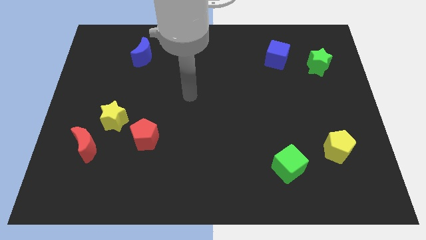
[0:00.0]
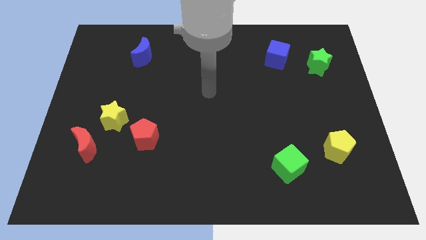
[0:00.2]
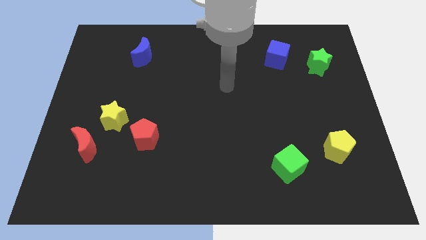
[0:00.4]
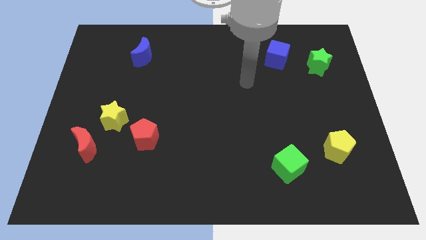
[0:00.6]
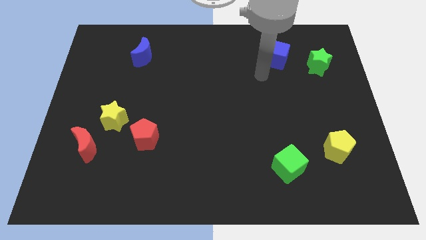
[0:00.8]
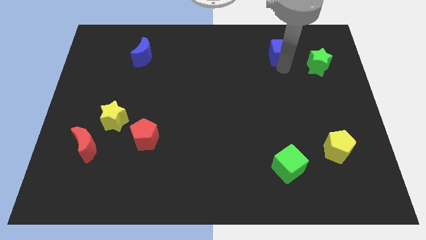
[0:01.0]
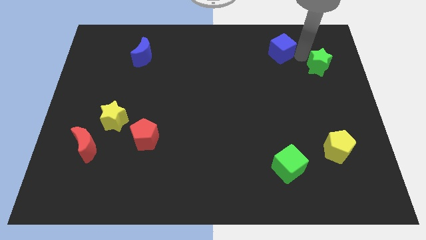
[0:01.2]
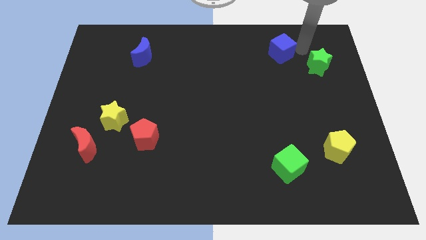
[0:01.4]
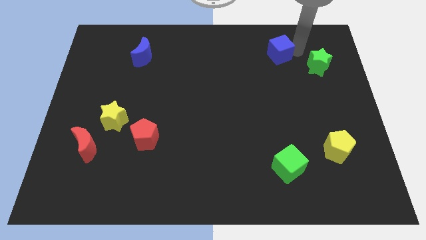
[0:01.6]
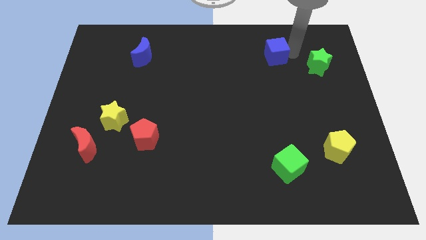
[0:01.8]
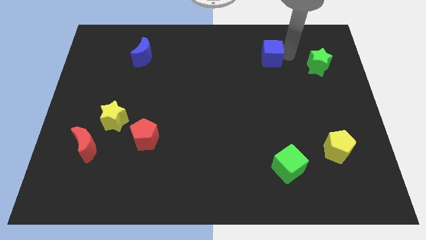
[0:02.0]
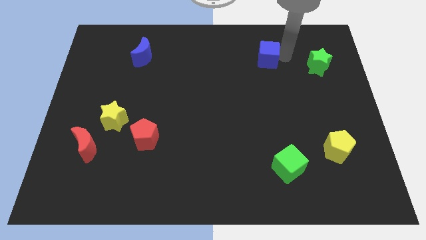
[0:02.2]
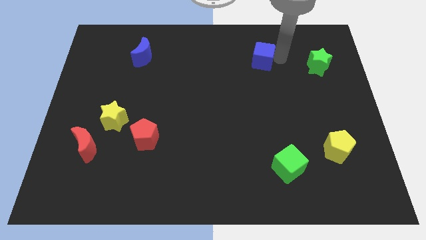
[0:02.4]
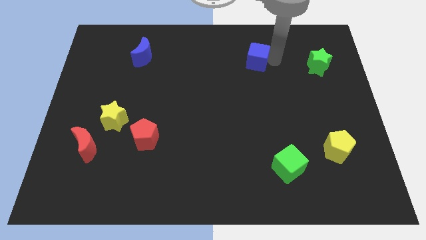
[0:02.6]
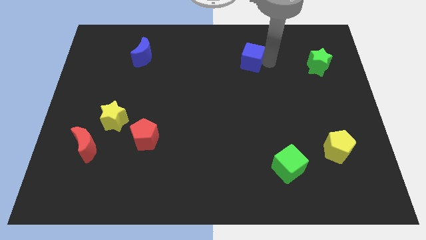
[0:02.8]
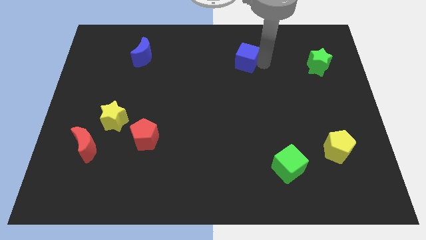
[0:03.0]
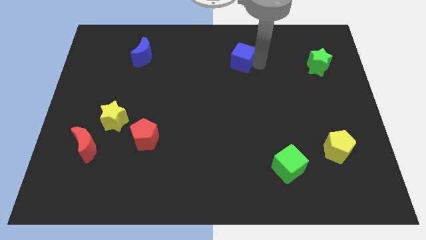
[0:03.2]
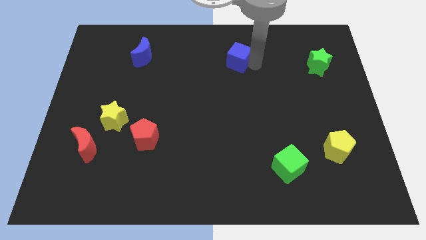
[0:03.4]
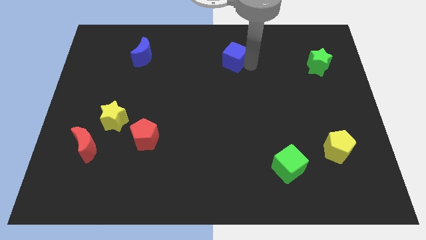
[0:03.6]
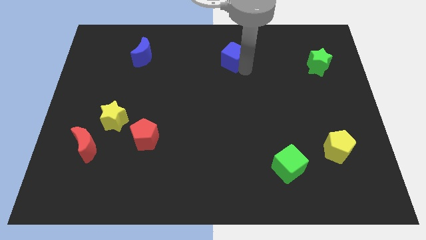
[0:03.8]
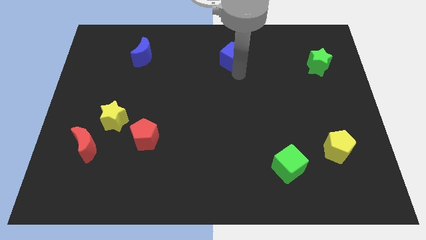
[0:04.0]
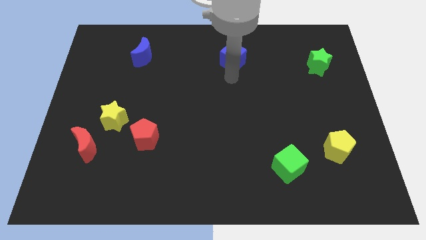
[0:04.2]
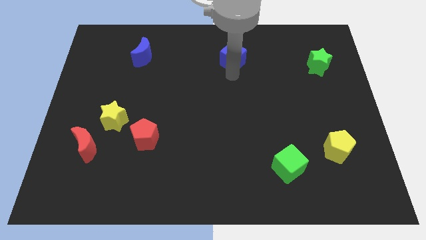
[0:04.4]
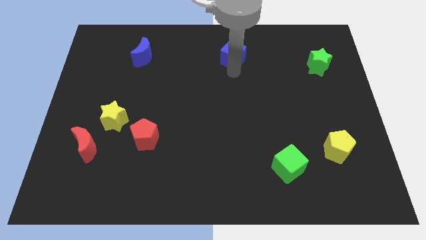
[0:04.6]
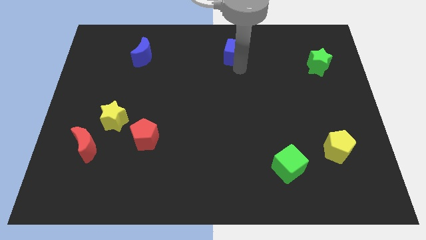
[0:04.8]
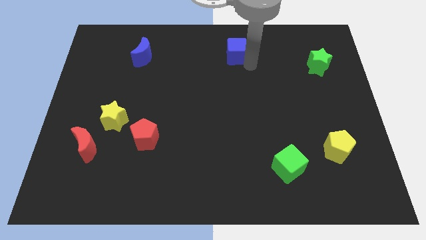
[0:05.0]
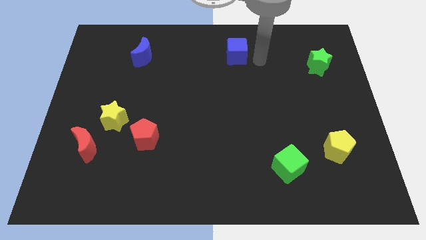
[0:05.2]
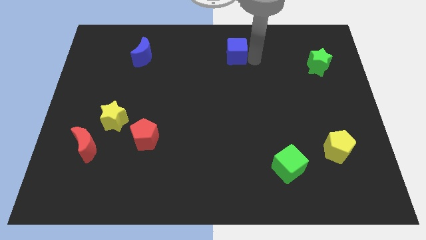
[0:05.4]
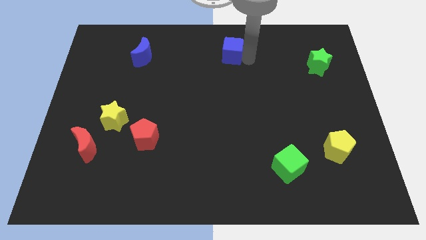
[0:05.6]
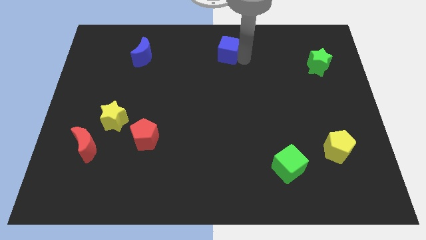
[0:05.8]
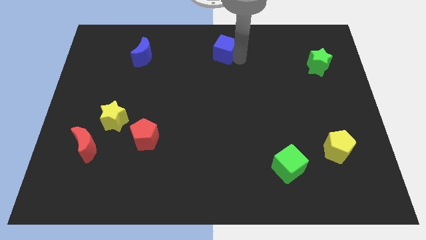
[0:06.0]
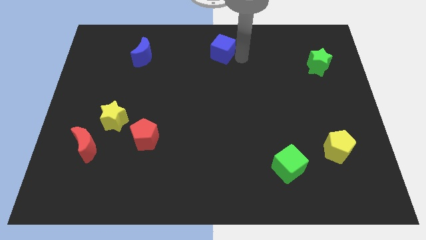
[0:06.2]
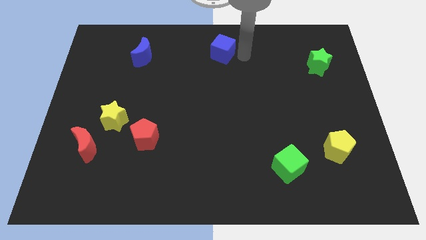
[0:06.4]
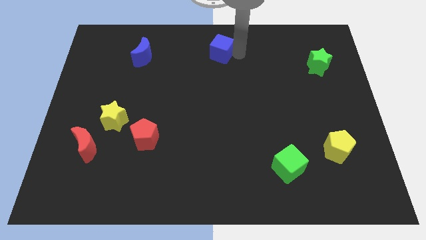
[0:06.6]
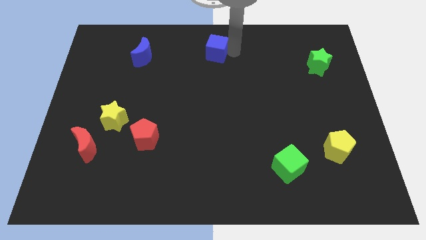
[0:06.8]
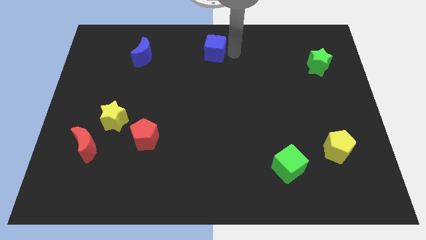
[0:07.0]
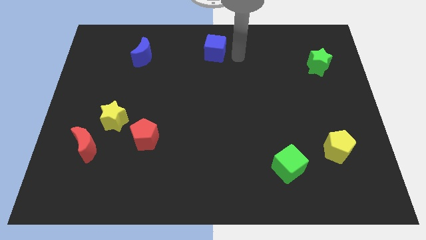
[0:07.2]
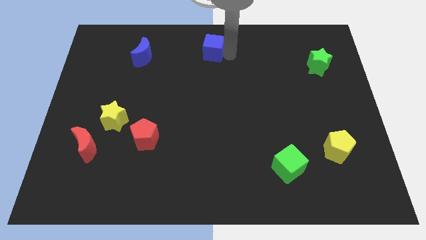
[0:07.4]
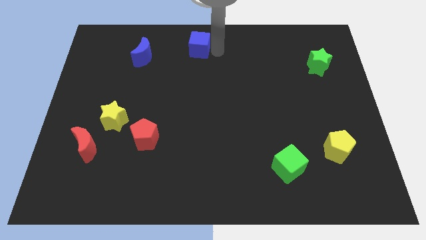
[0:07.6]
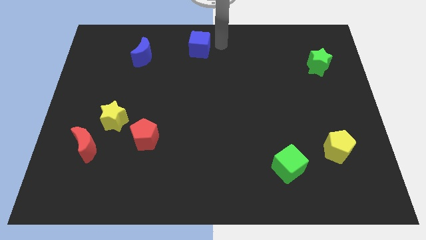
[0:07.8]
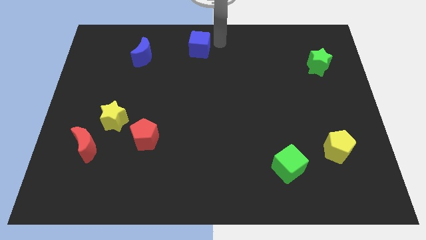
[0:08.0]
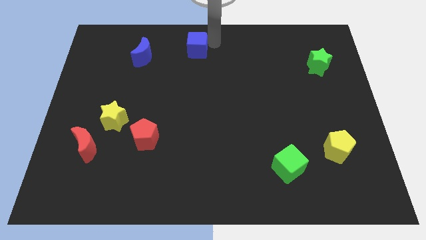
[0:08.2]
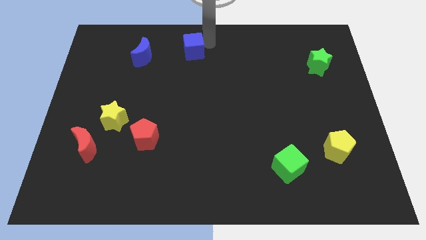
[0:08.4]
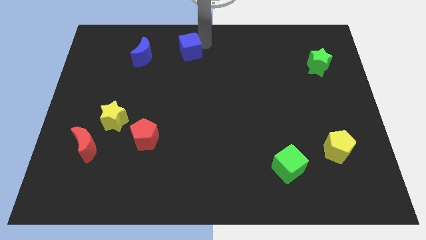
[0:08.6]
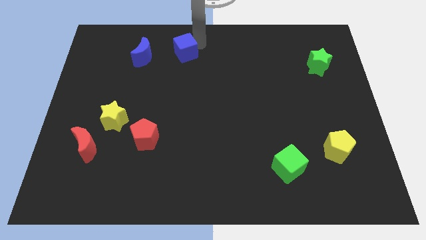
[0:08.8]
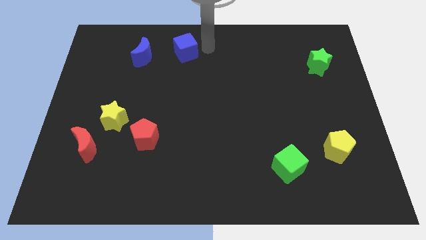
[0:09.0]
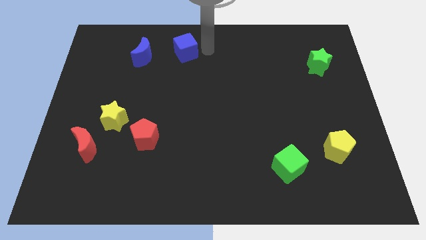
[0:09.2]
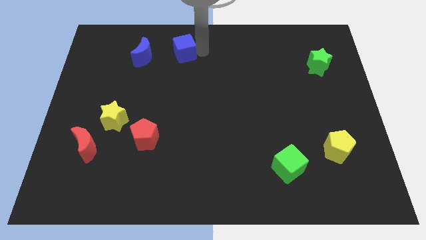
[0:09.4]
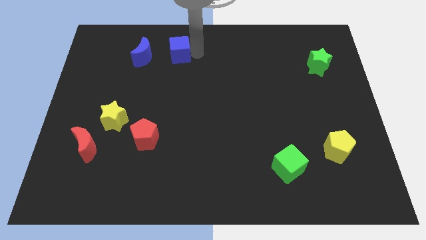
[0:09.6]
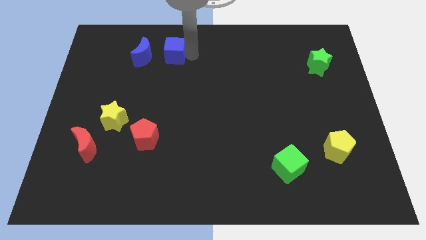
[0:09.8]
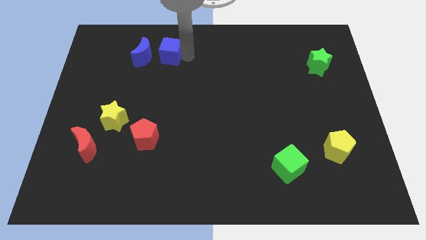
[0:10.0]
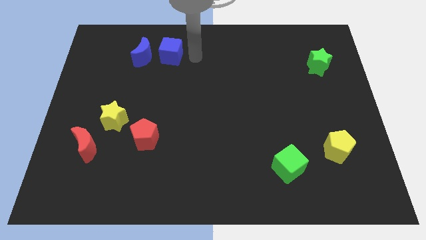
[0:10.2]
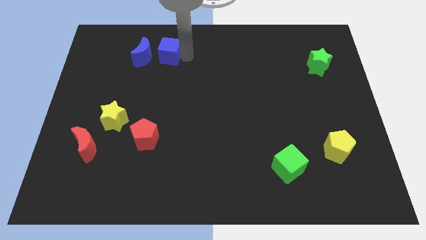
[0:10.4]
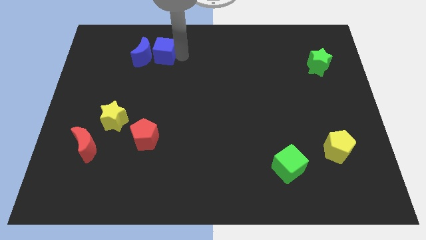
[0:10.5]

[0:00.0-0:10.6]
push the blue cube next to the blue moon

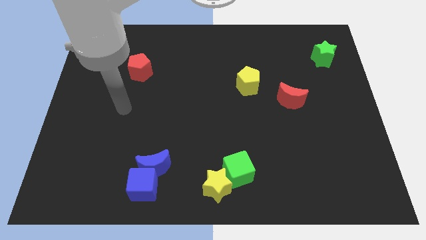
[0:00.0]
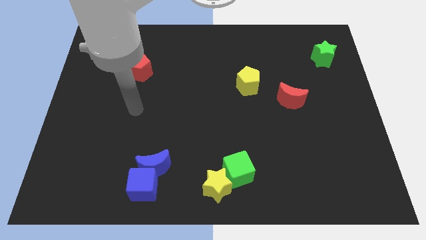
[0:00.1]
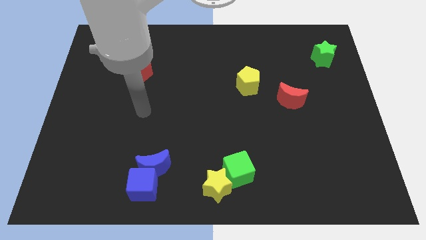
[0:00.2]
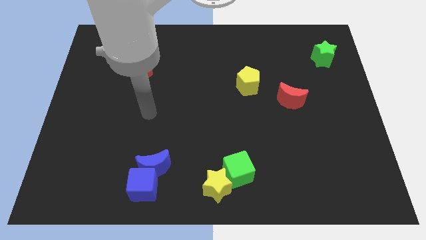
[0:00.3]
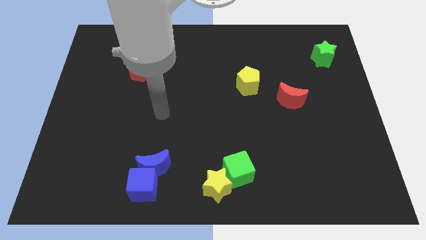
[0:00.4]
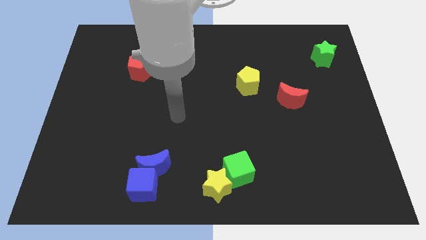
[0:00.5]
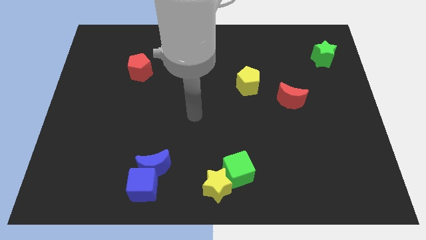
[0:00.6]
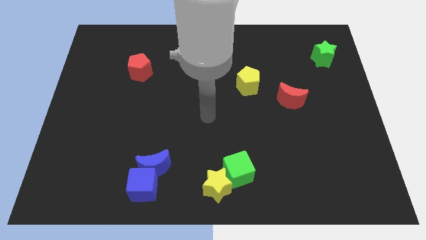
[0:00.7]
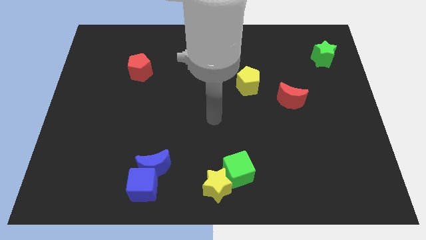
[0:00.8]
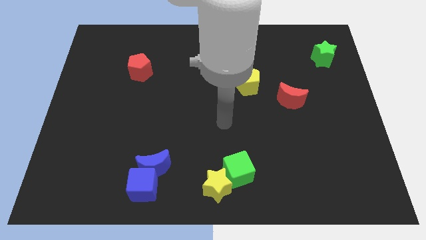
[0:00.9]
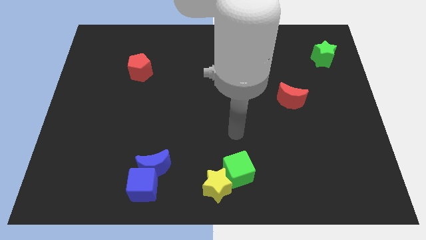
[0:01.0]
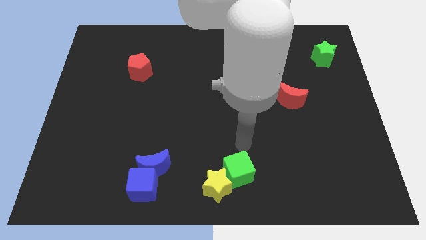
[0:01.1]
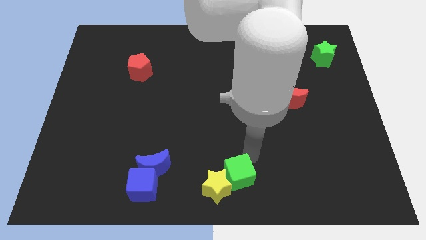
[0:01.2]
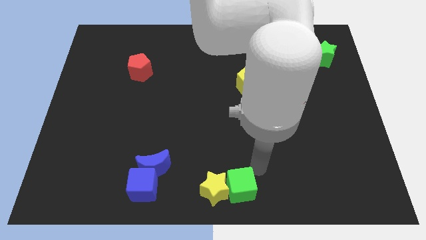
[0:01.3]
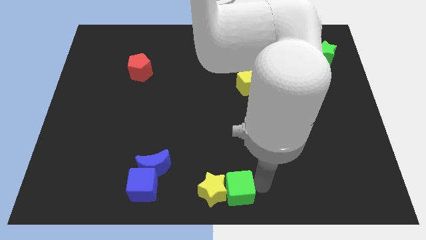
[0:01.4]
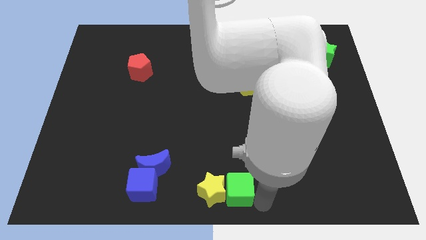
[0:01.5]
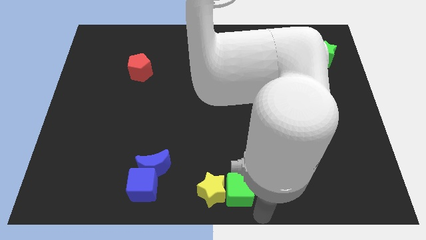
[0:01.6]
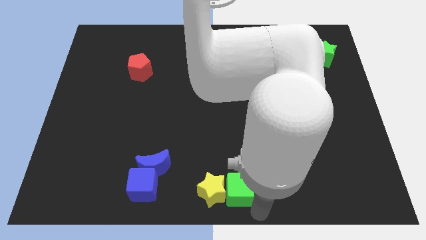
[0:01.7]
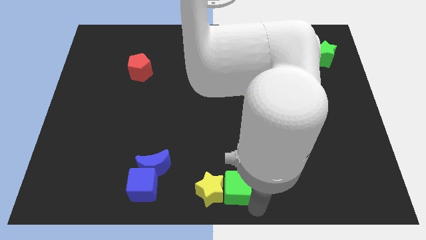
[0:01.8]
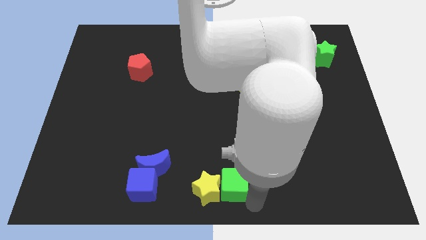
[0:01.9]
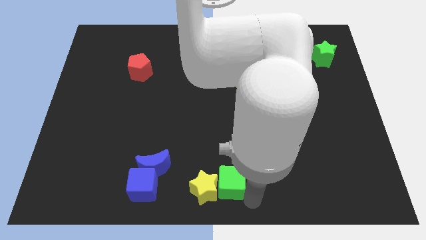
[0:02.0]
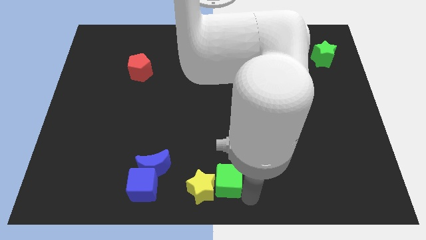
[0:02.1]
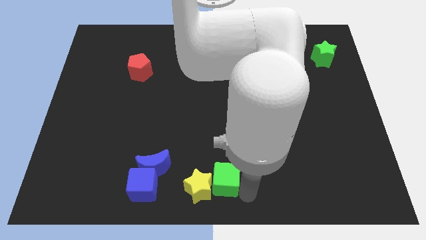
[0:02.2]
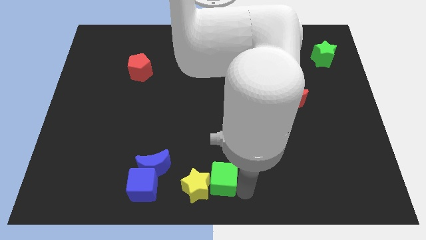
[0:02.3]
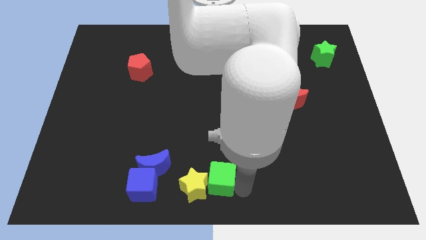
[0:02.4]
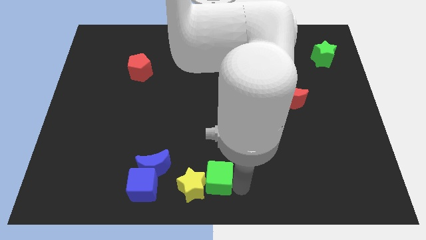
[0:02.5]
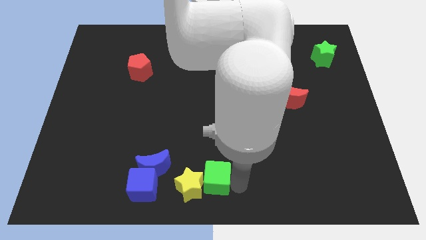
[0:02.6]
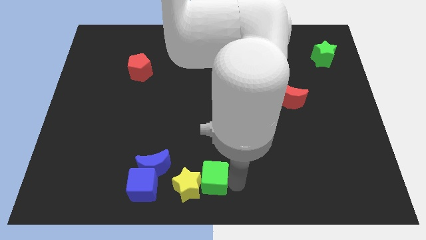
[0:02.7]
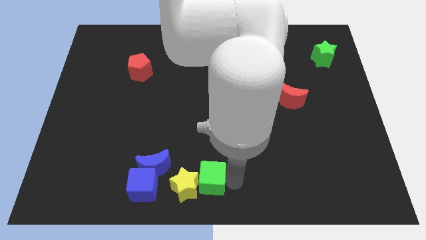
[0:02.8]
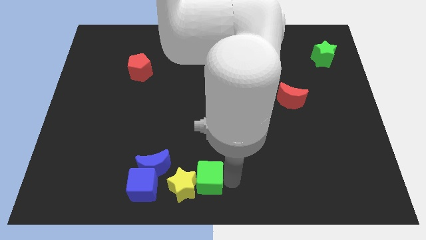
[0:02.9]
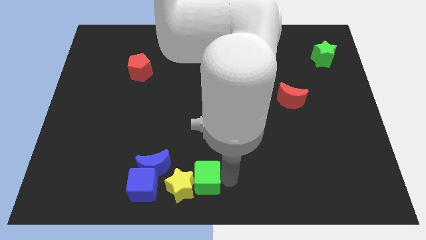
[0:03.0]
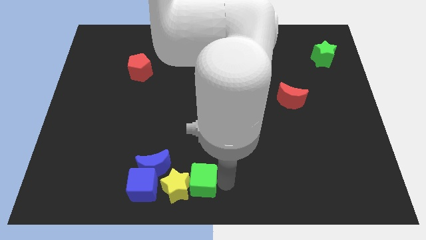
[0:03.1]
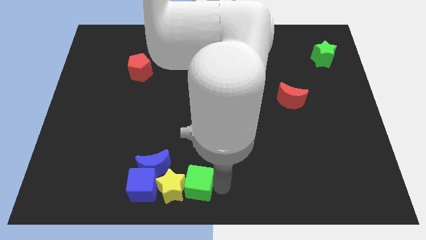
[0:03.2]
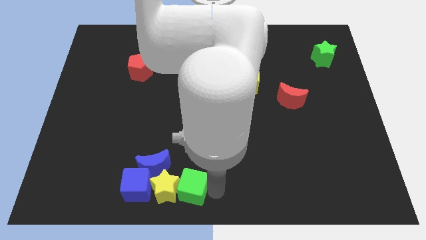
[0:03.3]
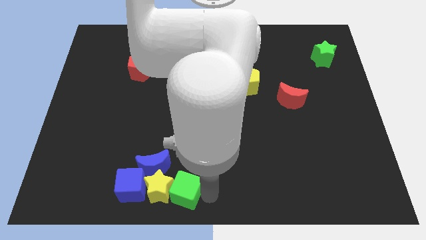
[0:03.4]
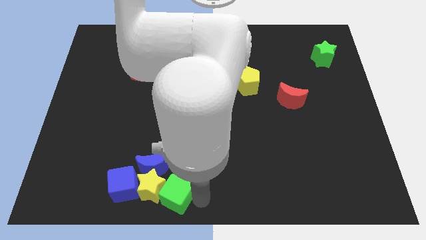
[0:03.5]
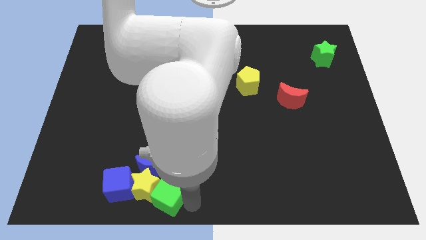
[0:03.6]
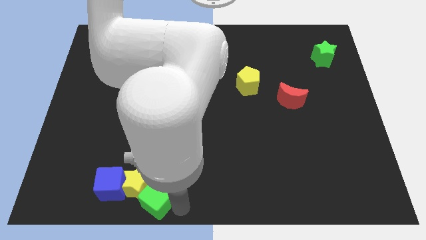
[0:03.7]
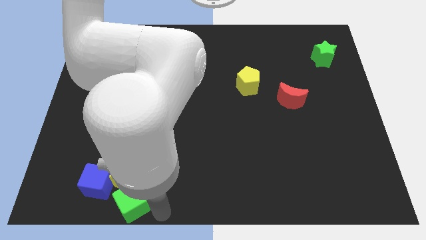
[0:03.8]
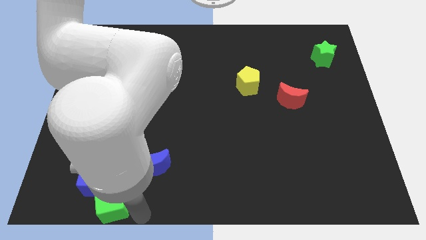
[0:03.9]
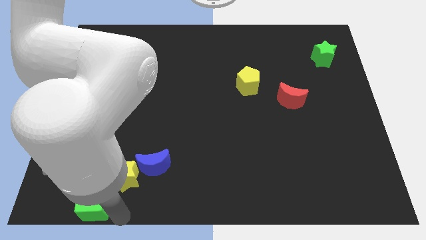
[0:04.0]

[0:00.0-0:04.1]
move the green cube to the blue cube
